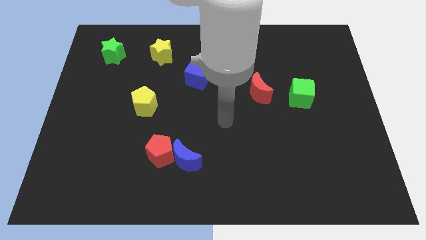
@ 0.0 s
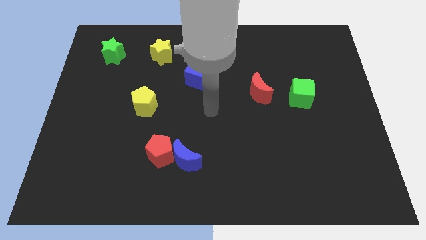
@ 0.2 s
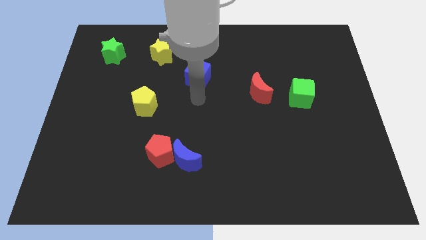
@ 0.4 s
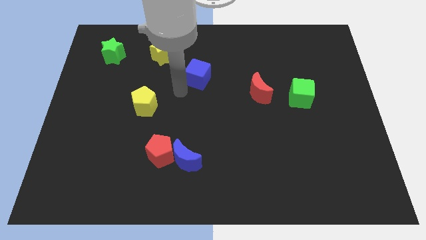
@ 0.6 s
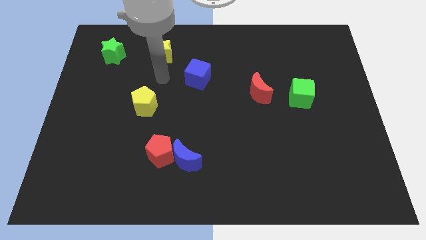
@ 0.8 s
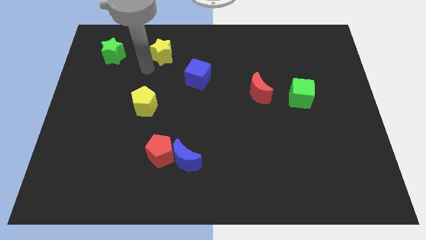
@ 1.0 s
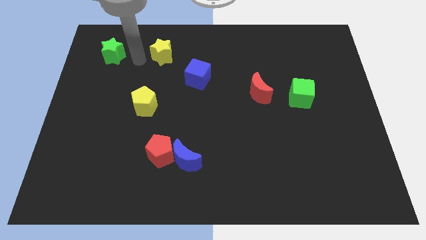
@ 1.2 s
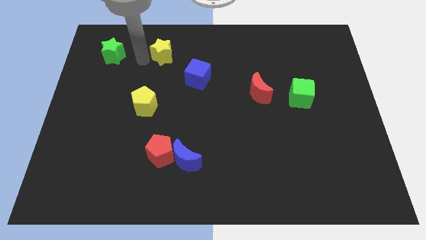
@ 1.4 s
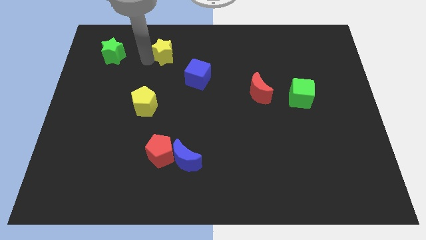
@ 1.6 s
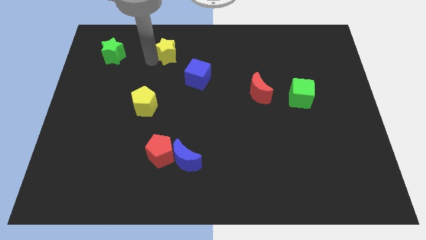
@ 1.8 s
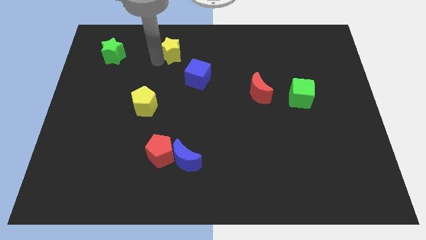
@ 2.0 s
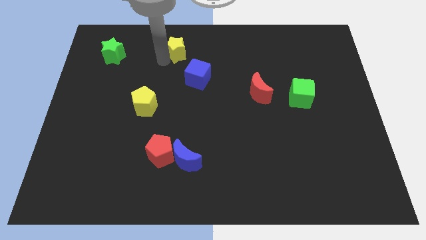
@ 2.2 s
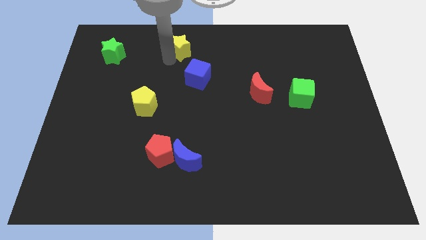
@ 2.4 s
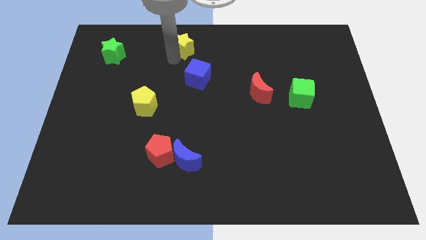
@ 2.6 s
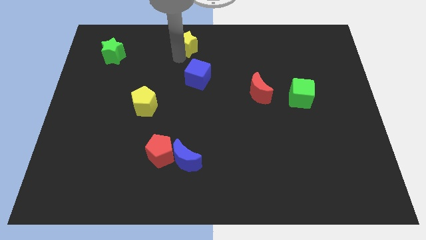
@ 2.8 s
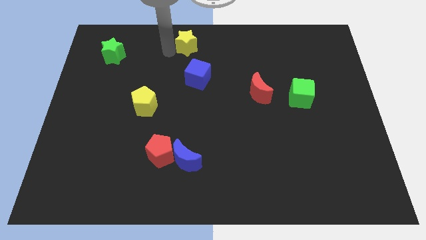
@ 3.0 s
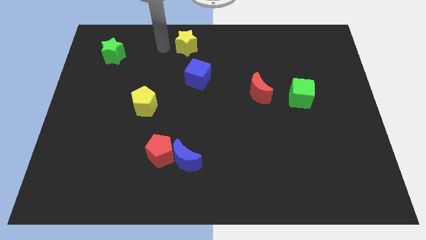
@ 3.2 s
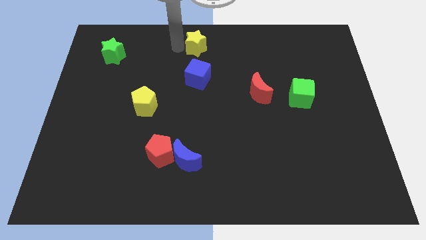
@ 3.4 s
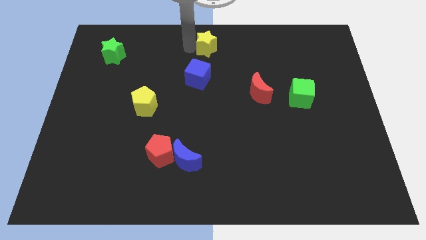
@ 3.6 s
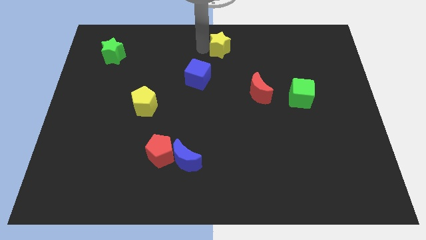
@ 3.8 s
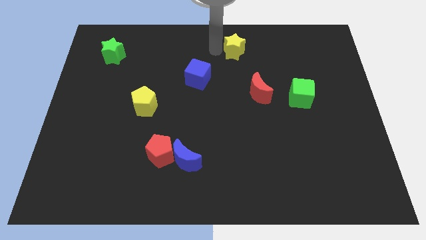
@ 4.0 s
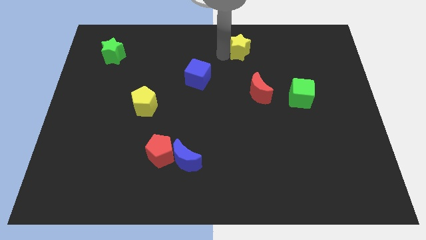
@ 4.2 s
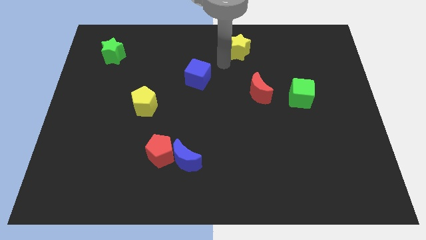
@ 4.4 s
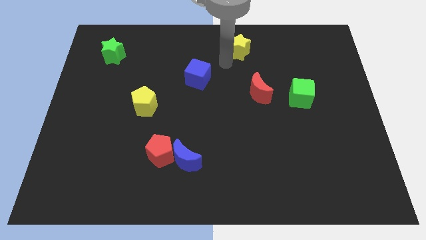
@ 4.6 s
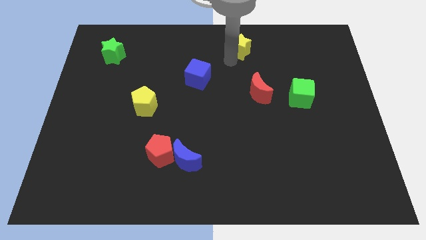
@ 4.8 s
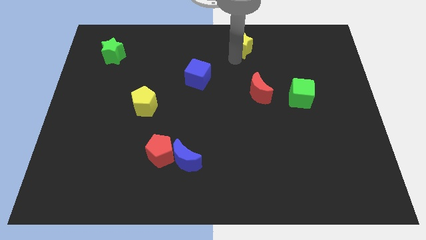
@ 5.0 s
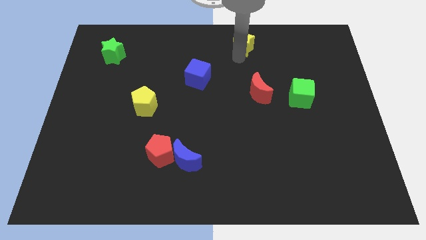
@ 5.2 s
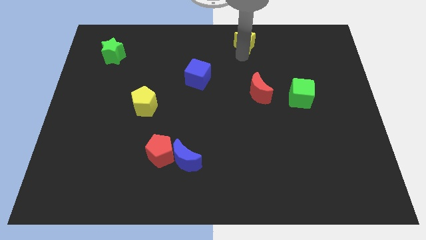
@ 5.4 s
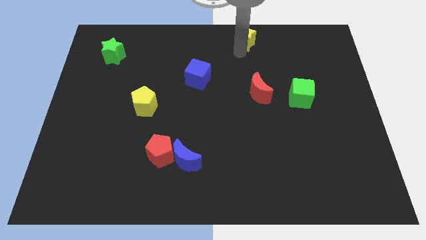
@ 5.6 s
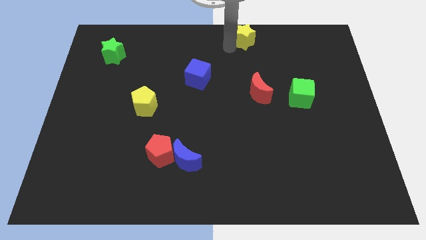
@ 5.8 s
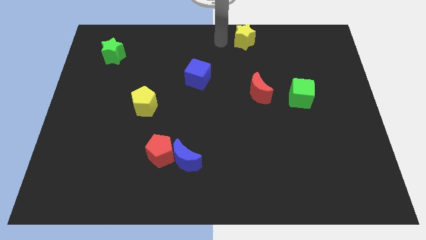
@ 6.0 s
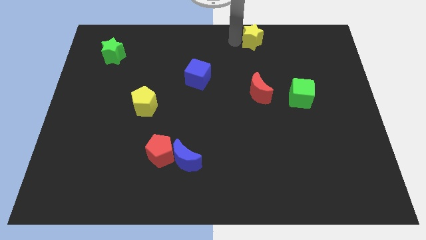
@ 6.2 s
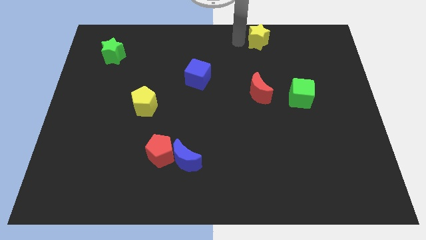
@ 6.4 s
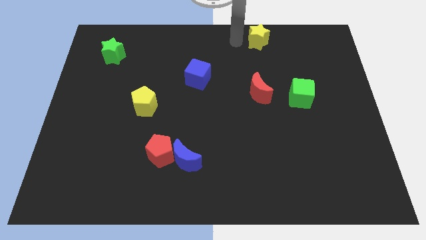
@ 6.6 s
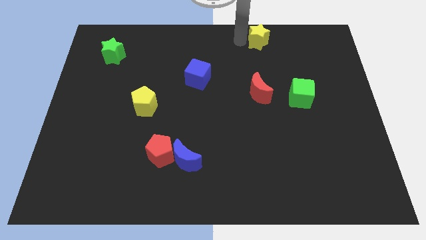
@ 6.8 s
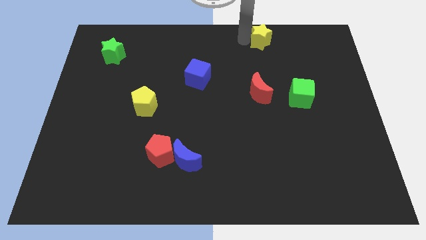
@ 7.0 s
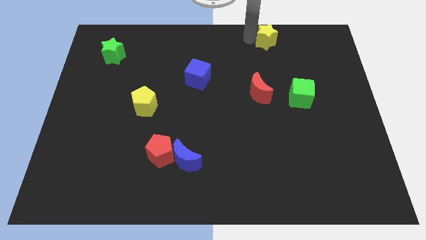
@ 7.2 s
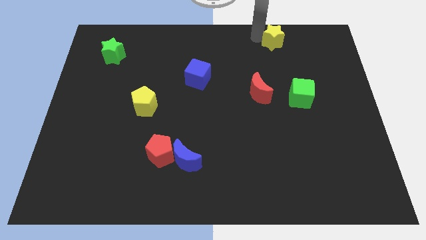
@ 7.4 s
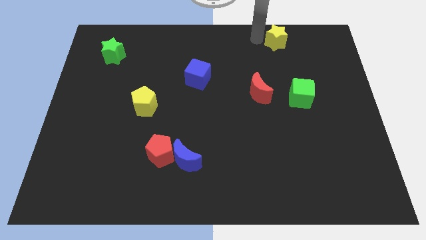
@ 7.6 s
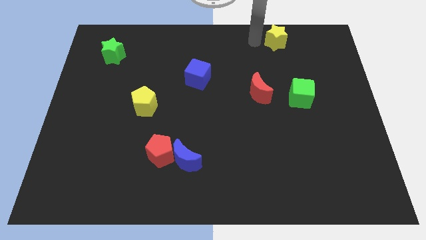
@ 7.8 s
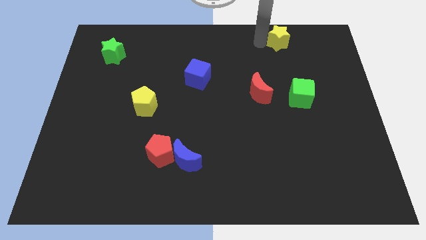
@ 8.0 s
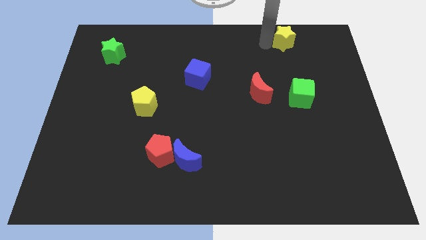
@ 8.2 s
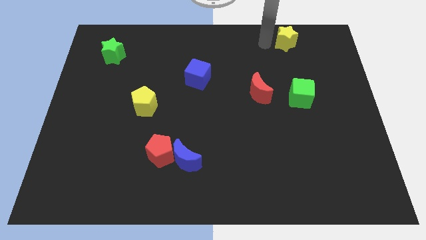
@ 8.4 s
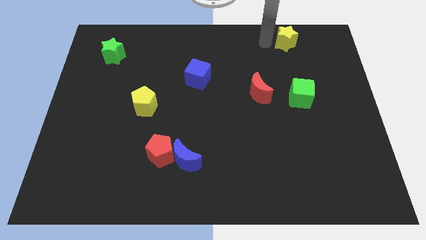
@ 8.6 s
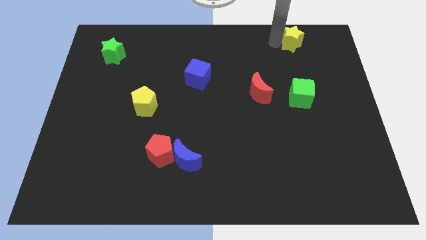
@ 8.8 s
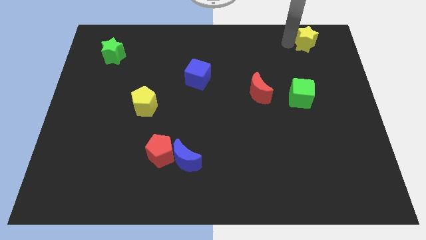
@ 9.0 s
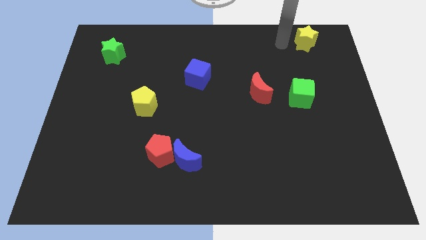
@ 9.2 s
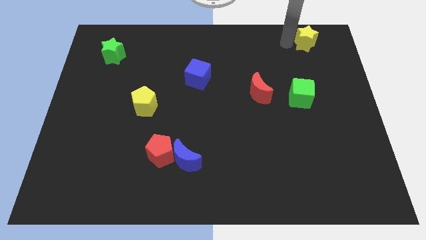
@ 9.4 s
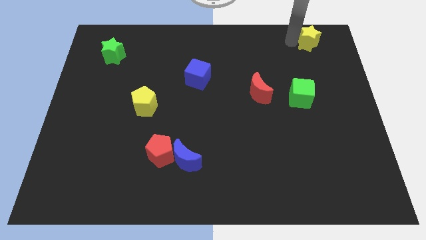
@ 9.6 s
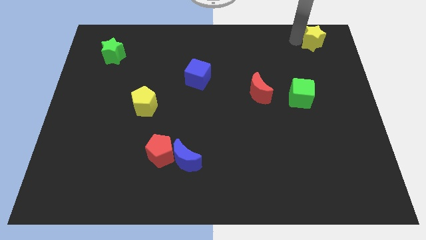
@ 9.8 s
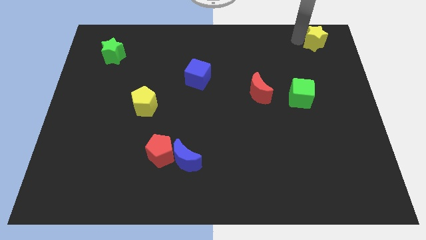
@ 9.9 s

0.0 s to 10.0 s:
push the yellow star to the top right

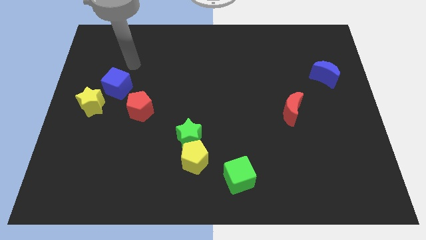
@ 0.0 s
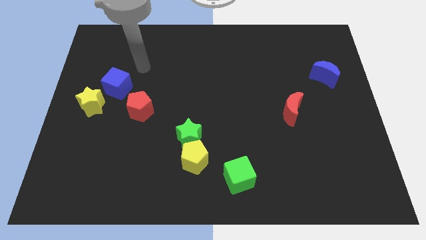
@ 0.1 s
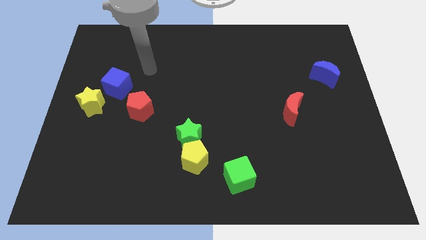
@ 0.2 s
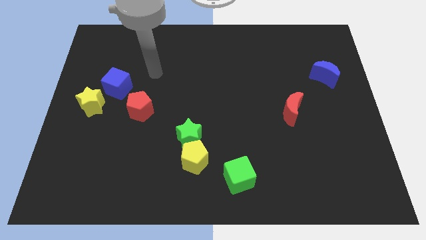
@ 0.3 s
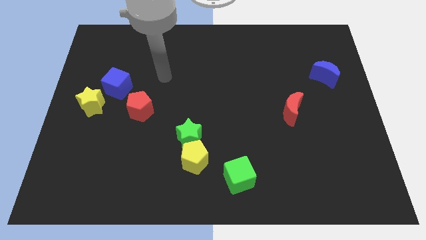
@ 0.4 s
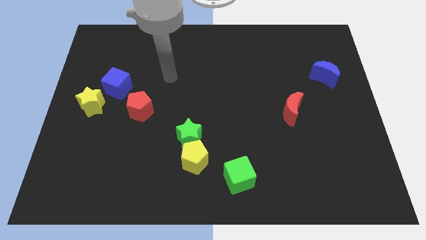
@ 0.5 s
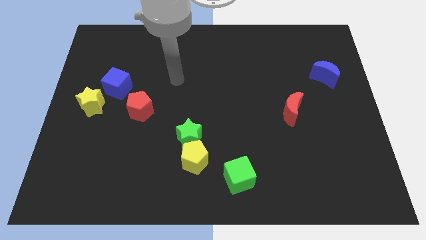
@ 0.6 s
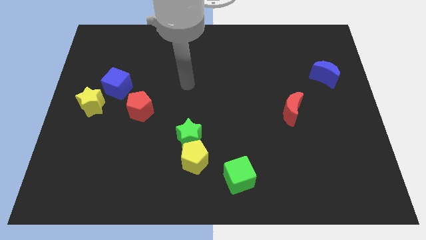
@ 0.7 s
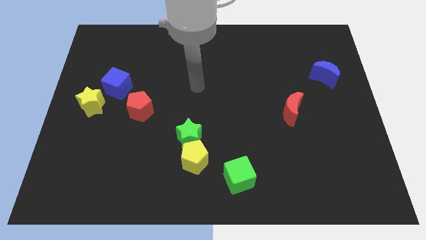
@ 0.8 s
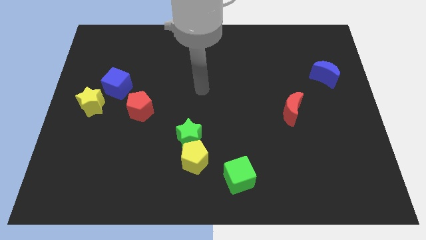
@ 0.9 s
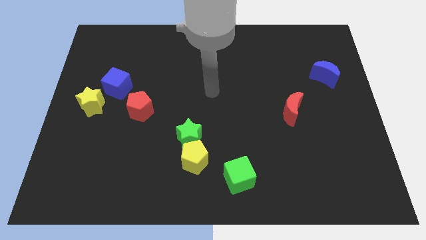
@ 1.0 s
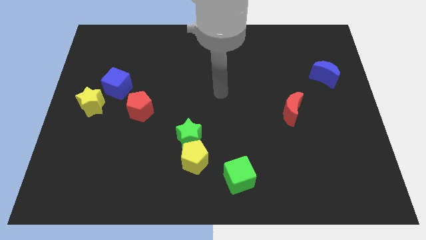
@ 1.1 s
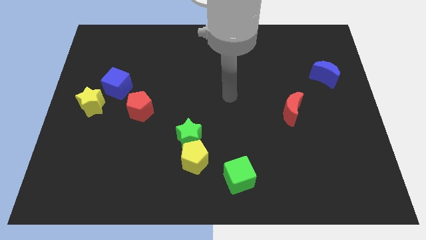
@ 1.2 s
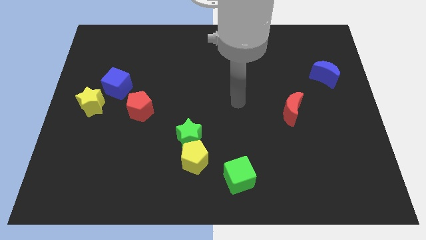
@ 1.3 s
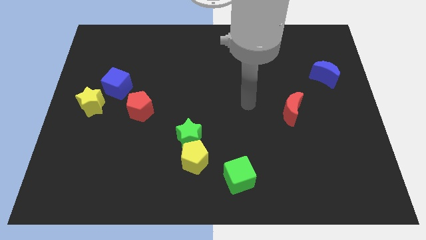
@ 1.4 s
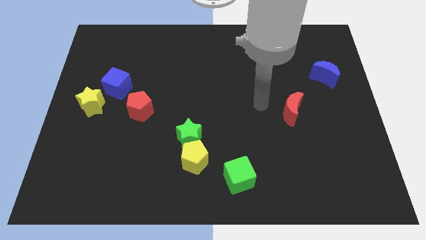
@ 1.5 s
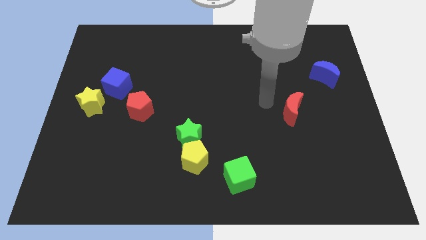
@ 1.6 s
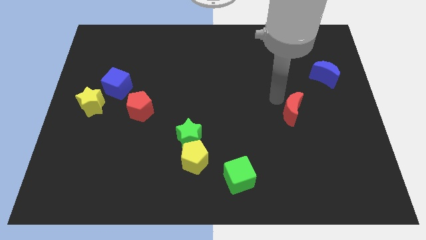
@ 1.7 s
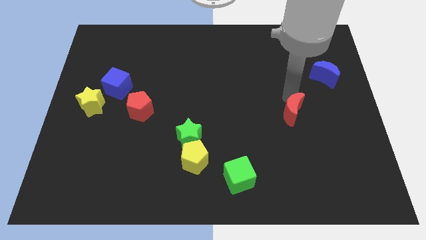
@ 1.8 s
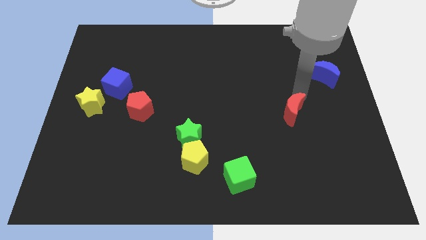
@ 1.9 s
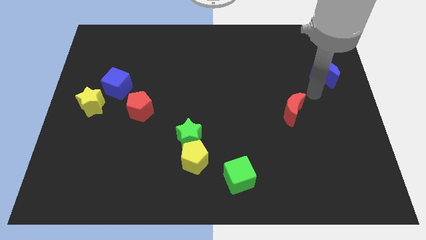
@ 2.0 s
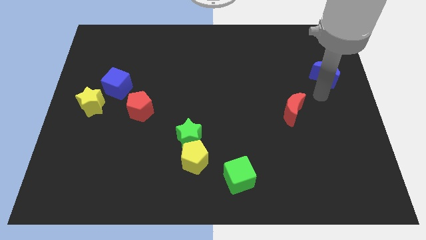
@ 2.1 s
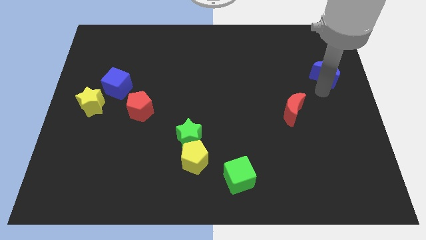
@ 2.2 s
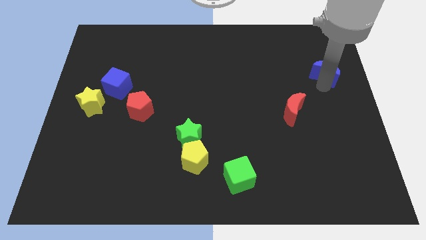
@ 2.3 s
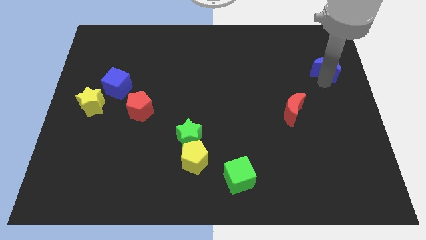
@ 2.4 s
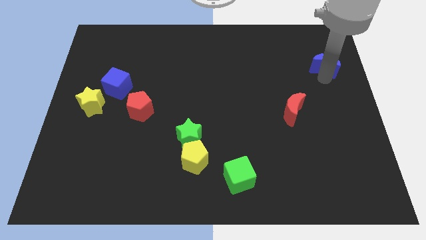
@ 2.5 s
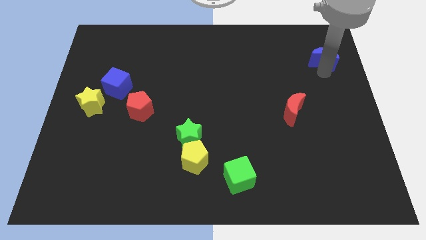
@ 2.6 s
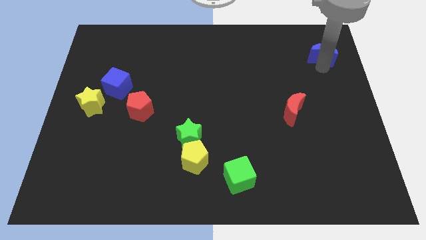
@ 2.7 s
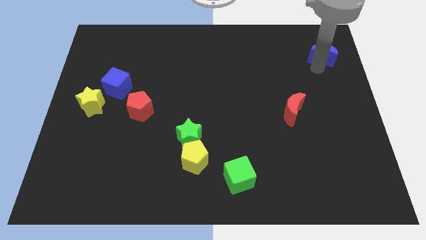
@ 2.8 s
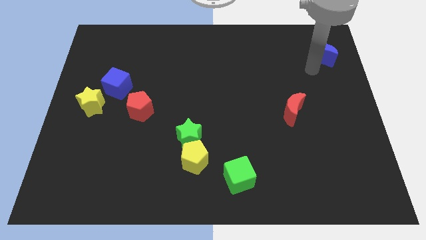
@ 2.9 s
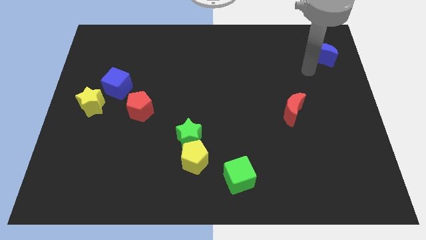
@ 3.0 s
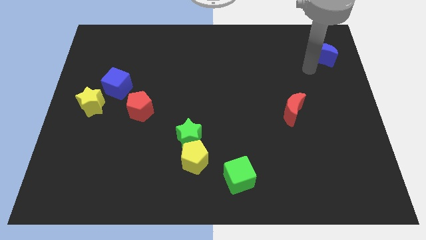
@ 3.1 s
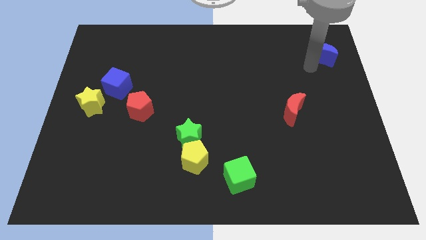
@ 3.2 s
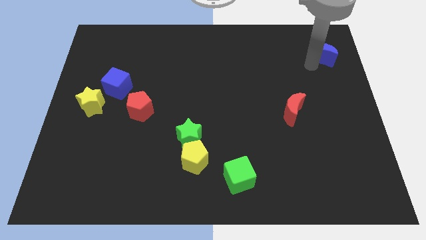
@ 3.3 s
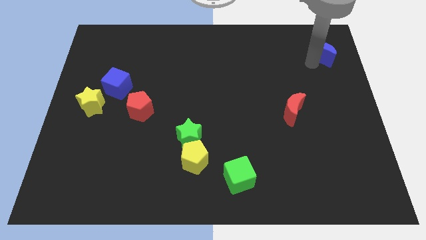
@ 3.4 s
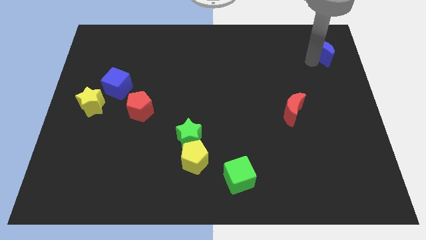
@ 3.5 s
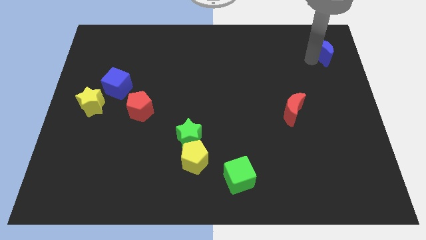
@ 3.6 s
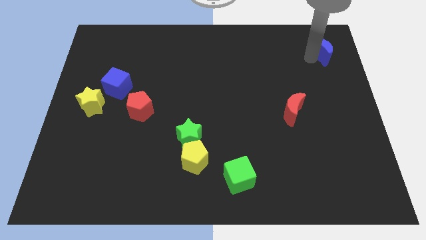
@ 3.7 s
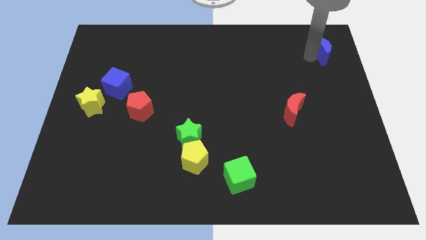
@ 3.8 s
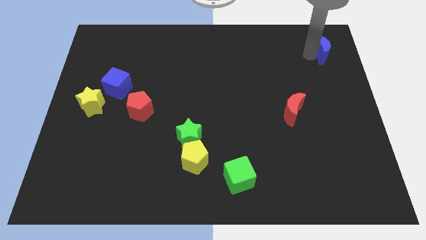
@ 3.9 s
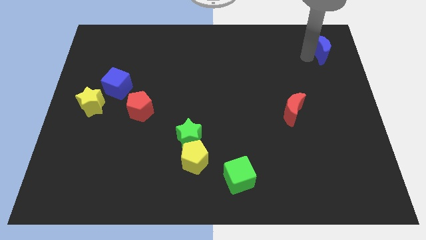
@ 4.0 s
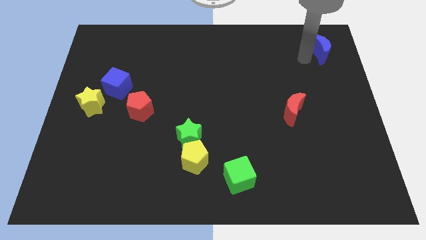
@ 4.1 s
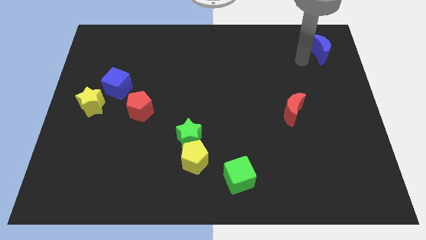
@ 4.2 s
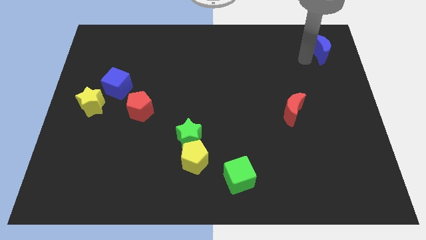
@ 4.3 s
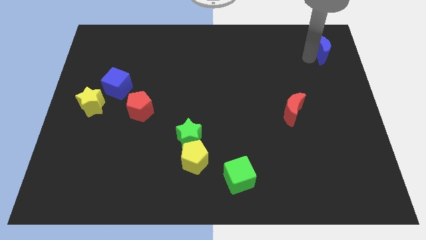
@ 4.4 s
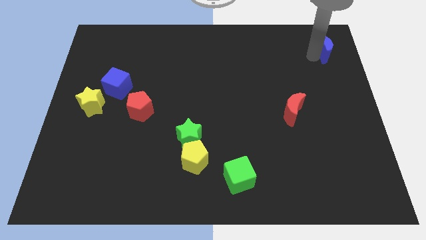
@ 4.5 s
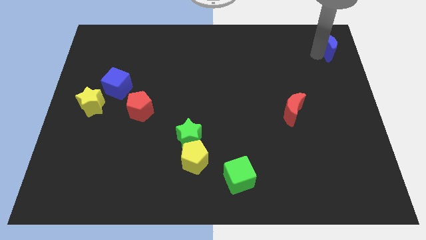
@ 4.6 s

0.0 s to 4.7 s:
put the blue moon to the top right of the board
